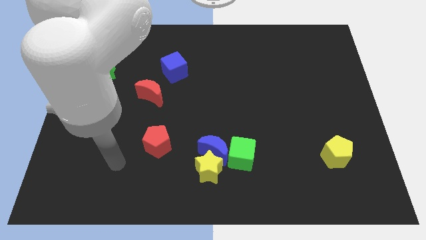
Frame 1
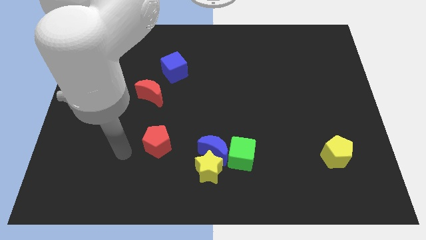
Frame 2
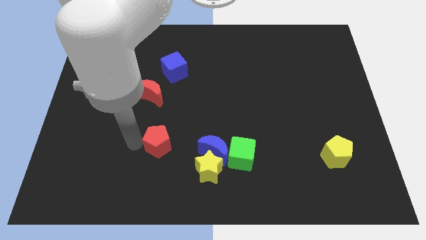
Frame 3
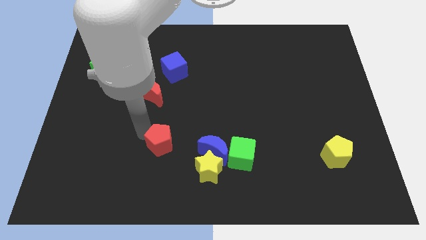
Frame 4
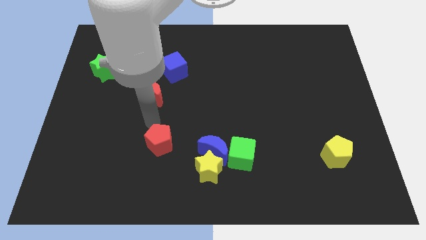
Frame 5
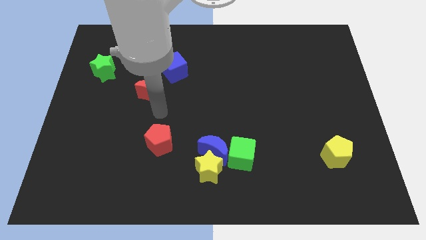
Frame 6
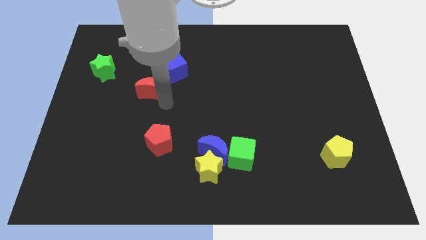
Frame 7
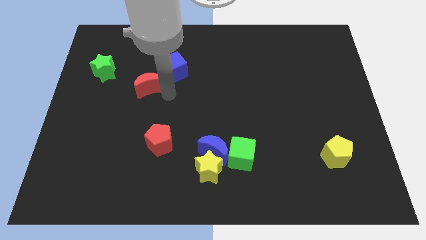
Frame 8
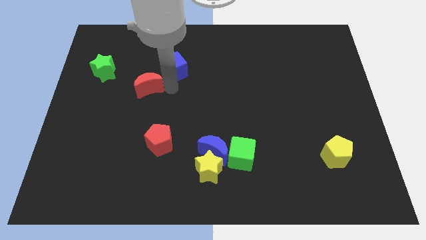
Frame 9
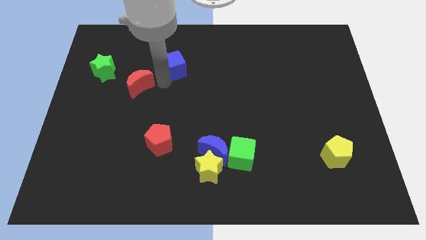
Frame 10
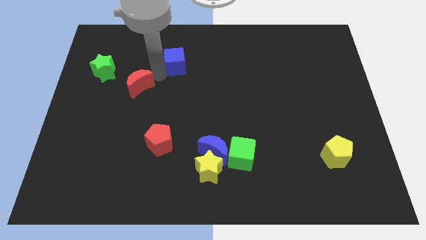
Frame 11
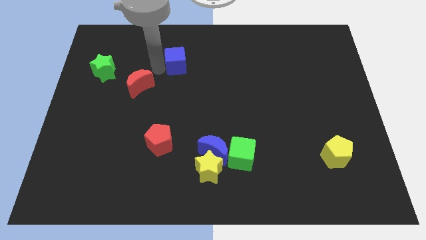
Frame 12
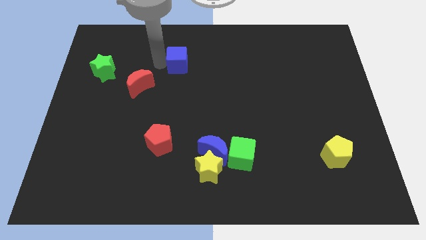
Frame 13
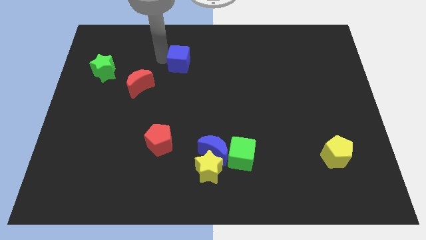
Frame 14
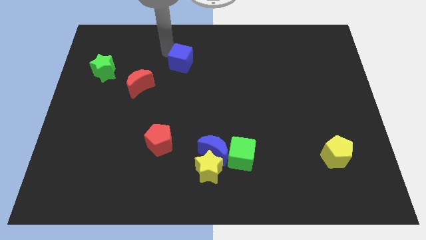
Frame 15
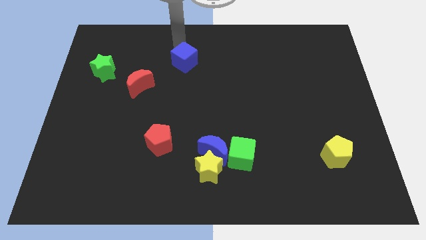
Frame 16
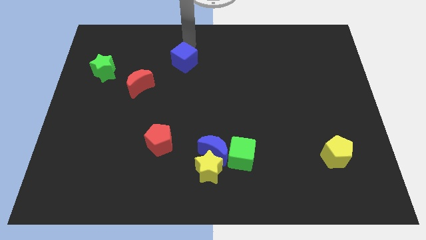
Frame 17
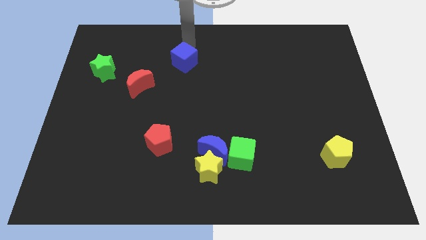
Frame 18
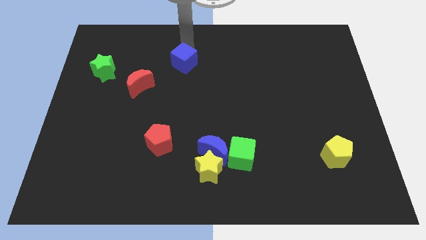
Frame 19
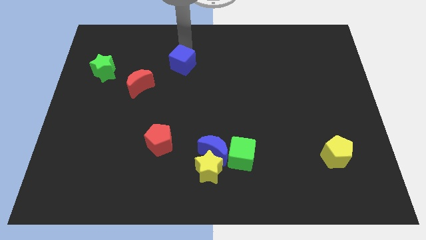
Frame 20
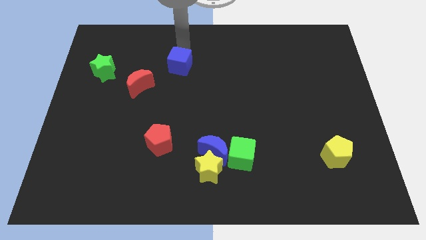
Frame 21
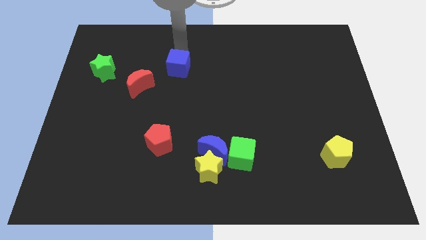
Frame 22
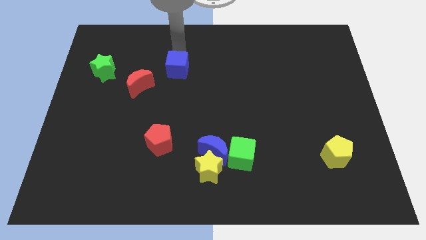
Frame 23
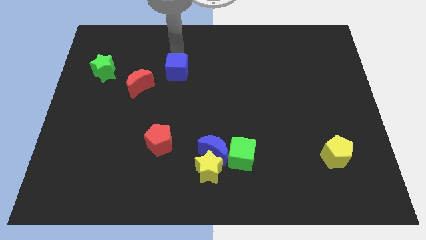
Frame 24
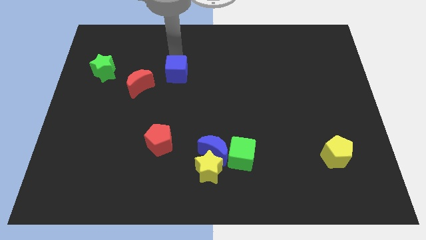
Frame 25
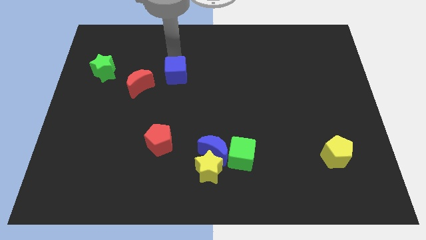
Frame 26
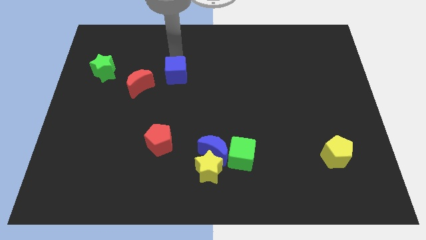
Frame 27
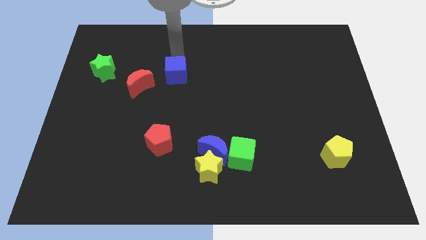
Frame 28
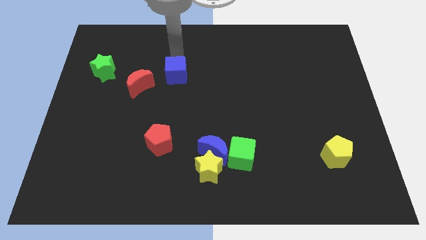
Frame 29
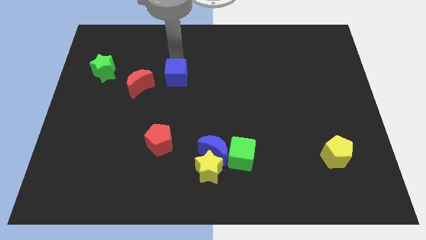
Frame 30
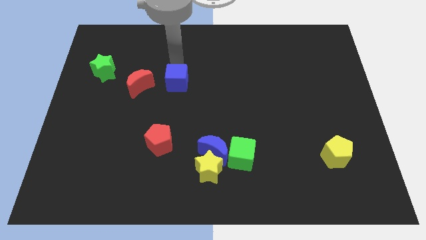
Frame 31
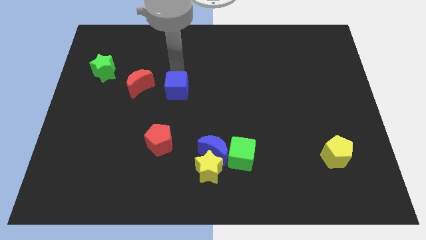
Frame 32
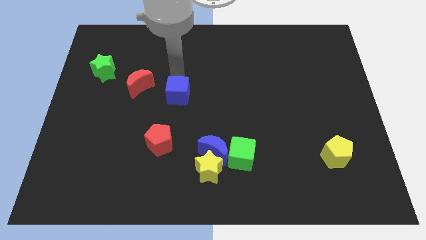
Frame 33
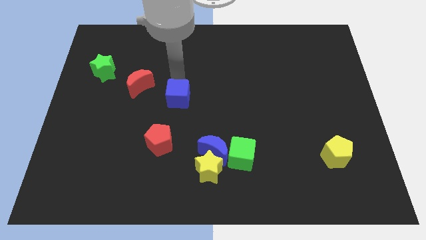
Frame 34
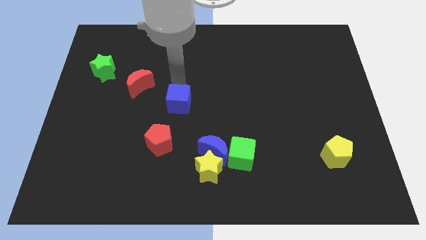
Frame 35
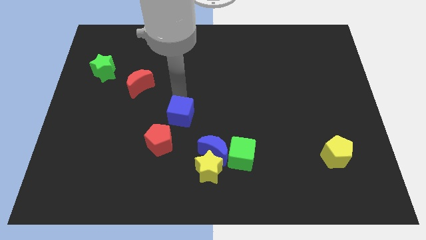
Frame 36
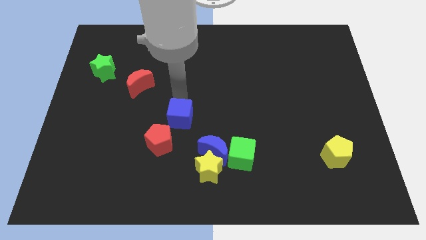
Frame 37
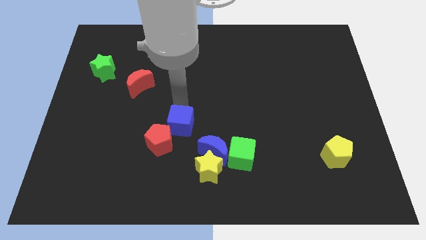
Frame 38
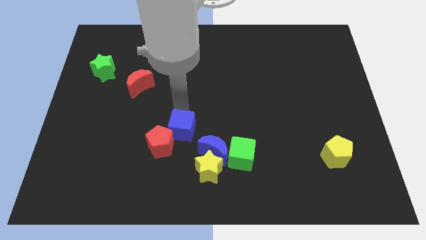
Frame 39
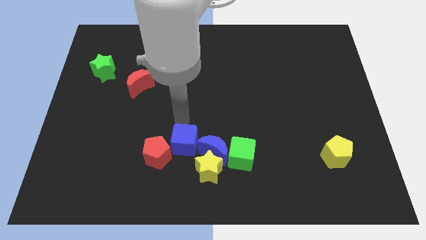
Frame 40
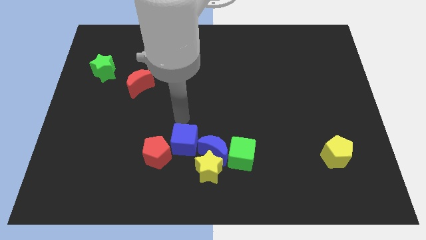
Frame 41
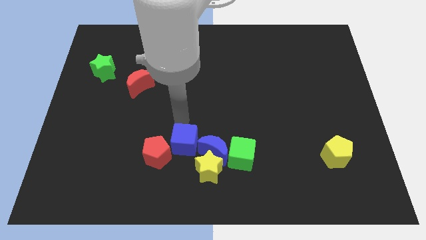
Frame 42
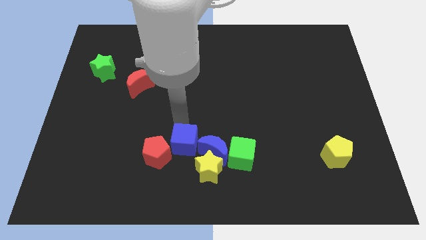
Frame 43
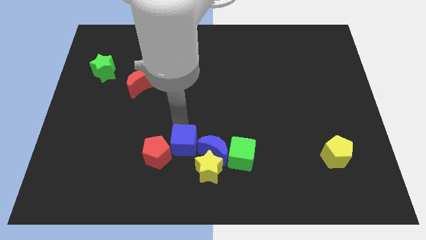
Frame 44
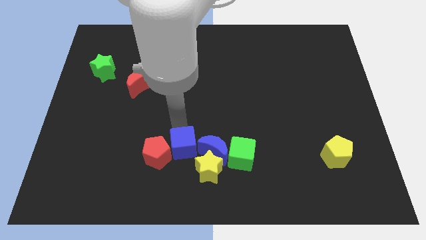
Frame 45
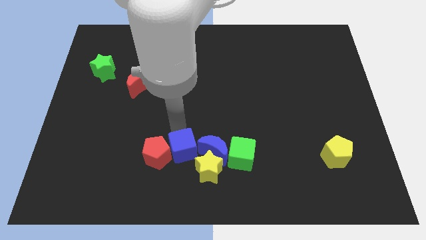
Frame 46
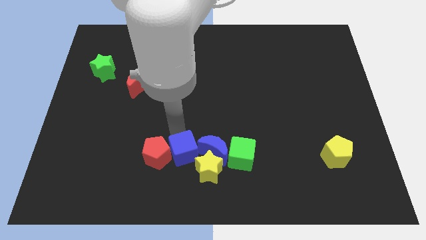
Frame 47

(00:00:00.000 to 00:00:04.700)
slide the blue cube to the bottom left of the blue moon

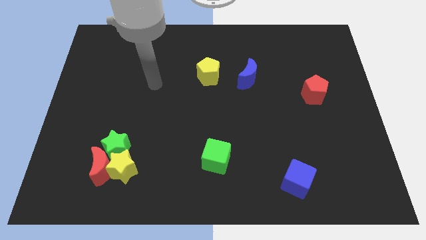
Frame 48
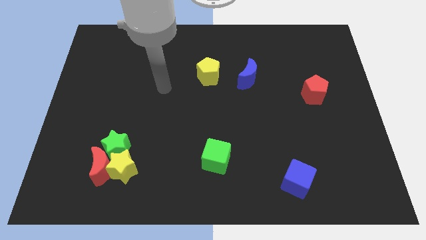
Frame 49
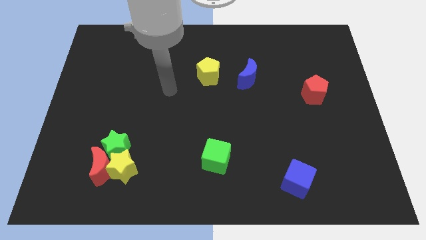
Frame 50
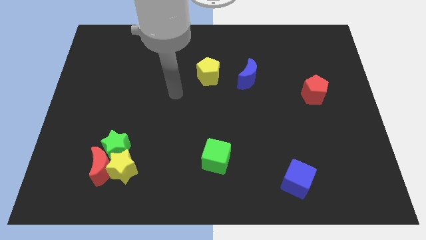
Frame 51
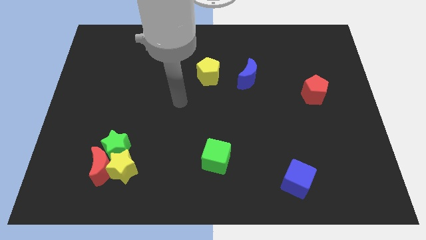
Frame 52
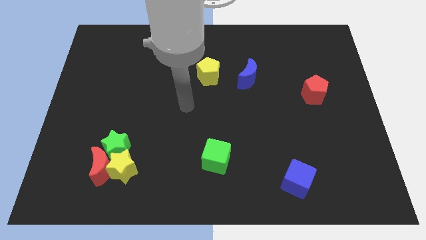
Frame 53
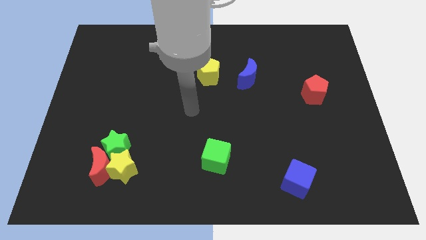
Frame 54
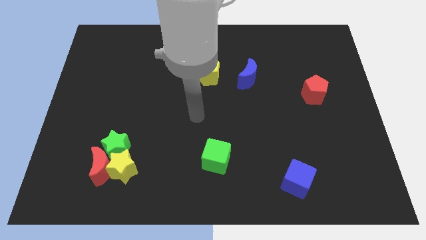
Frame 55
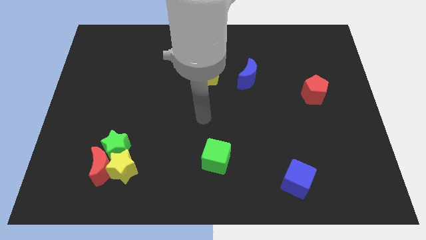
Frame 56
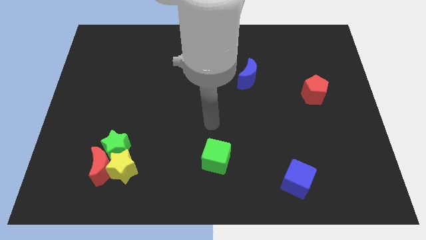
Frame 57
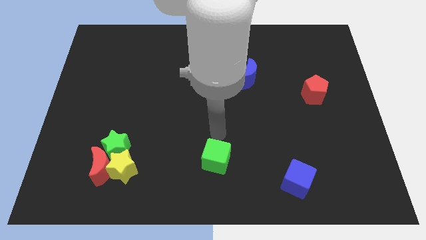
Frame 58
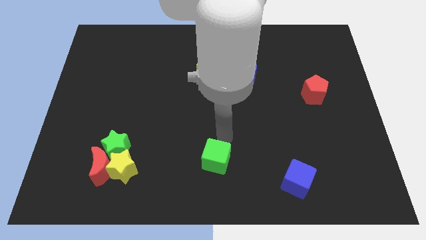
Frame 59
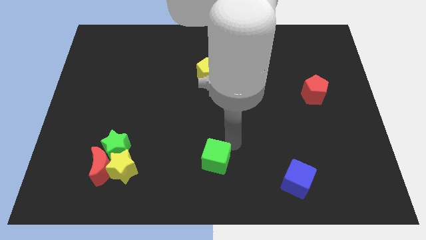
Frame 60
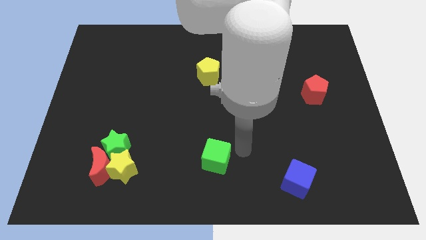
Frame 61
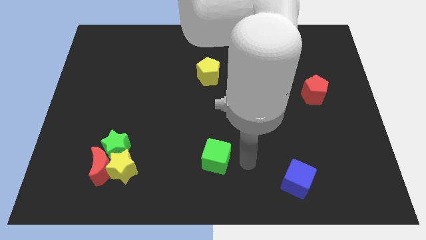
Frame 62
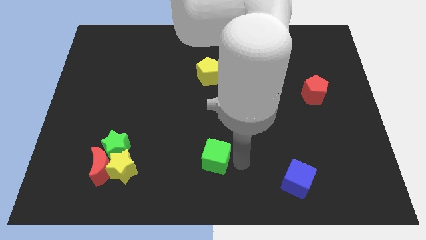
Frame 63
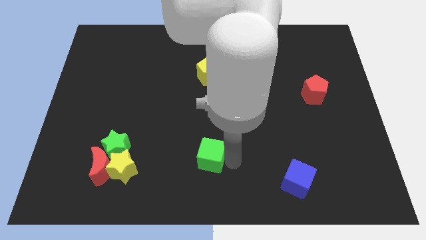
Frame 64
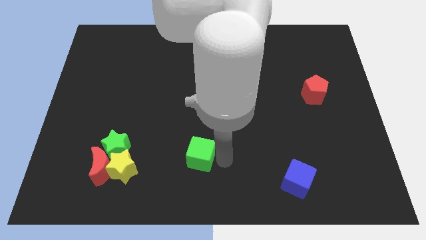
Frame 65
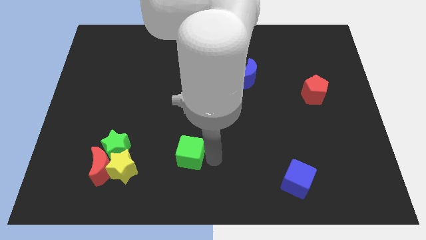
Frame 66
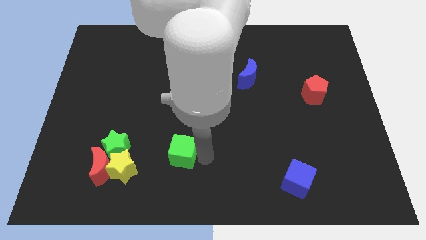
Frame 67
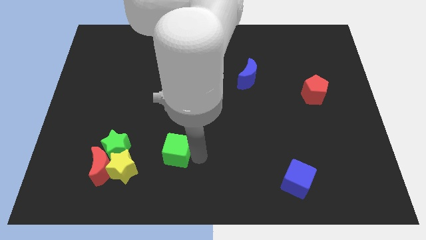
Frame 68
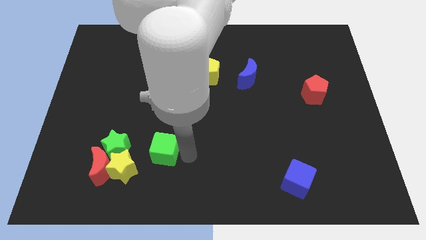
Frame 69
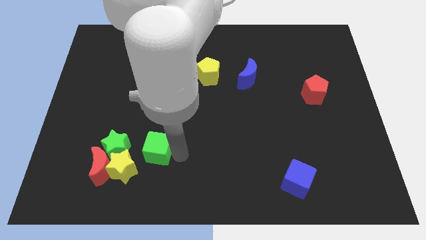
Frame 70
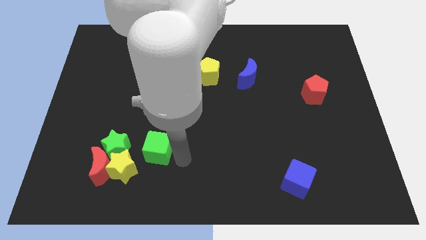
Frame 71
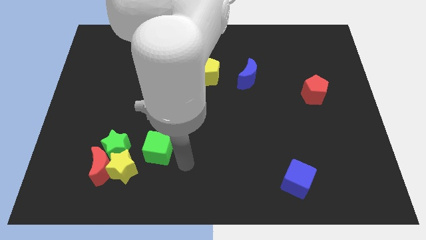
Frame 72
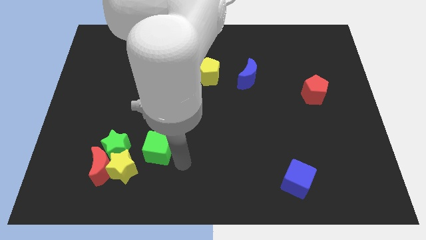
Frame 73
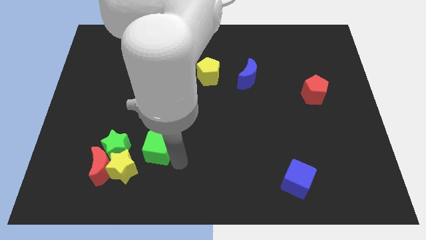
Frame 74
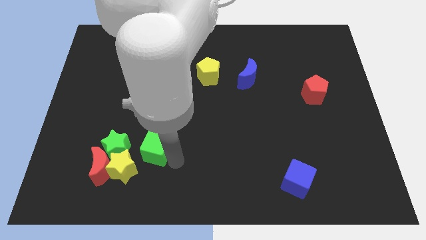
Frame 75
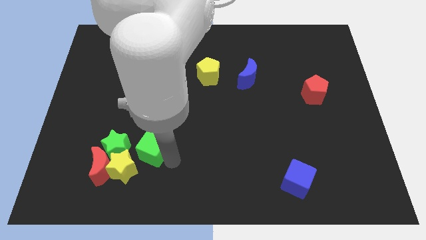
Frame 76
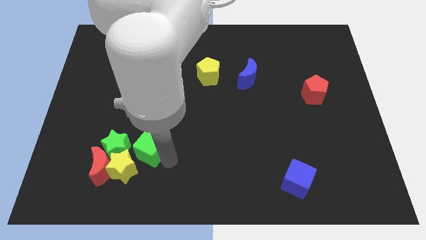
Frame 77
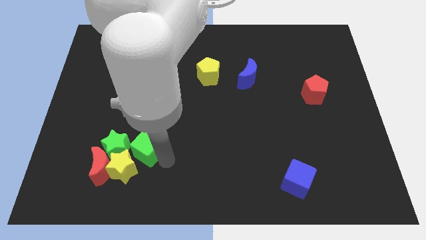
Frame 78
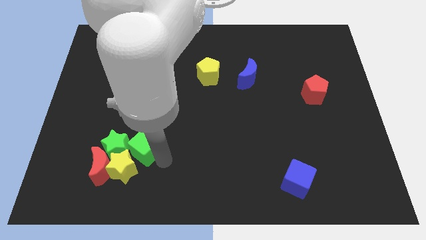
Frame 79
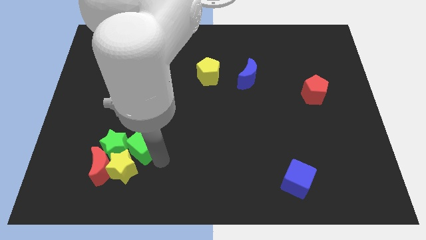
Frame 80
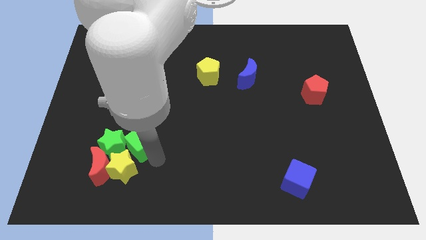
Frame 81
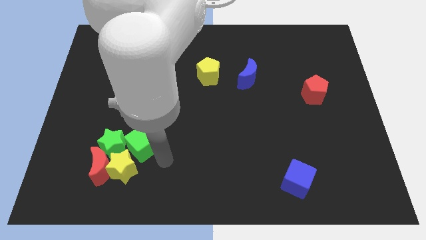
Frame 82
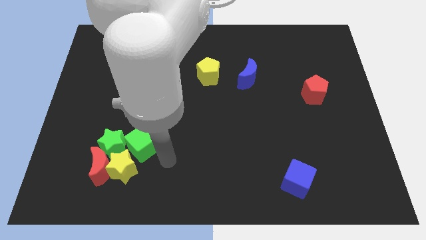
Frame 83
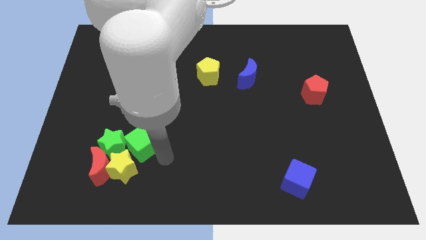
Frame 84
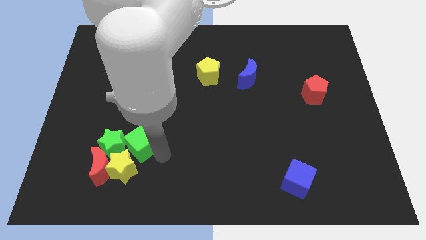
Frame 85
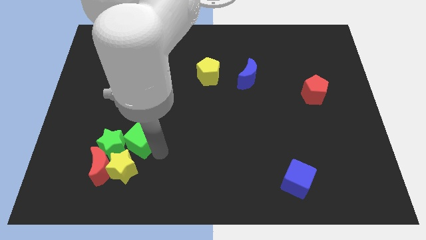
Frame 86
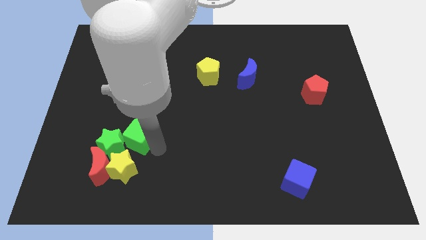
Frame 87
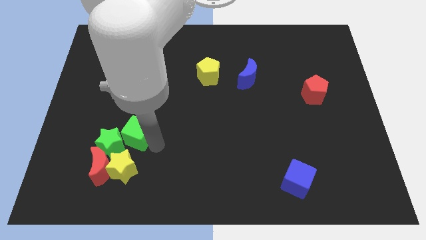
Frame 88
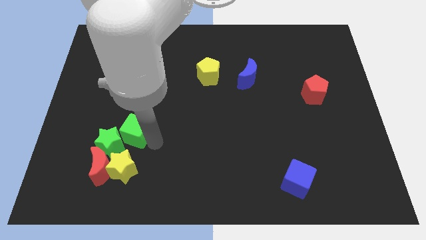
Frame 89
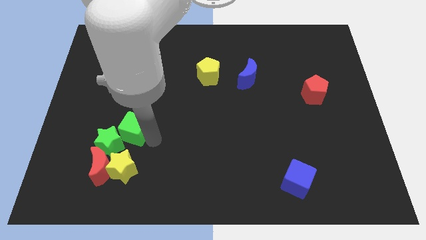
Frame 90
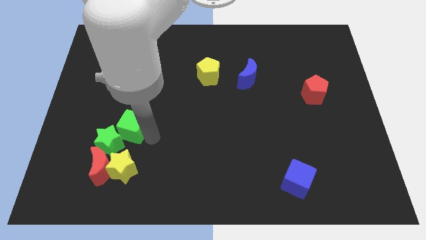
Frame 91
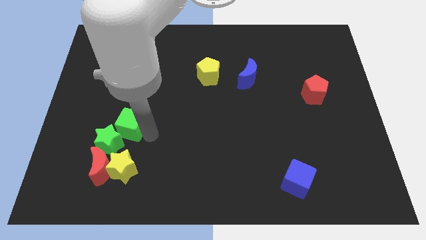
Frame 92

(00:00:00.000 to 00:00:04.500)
slide the green cube above the red moon
